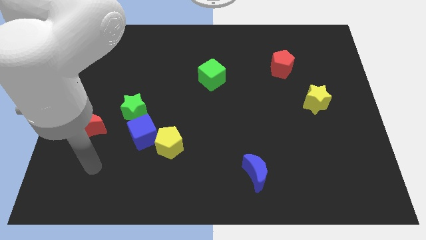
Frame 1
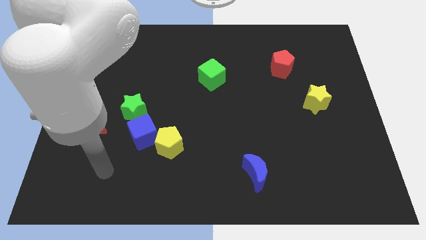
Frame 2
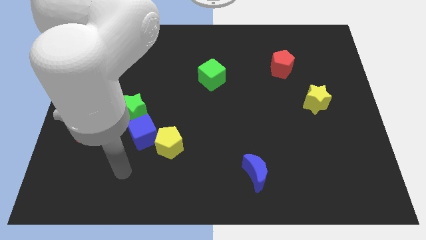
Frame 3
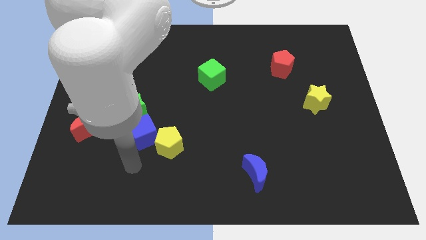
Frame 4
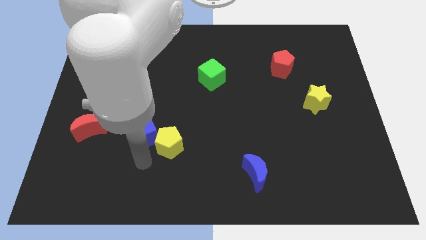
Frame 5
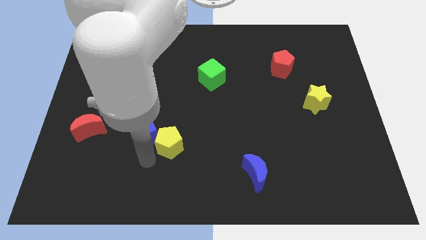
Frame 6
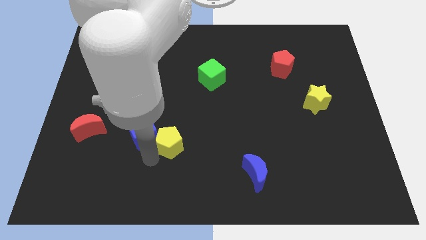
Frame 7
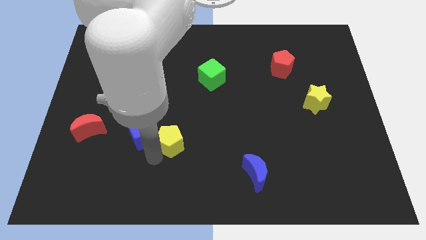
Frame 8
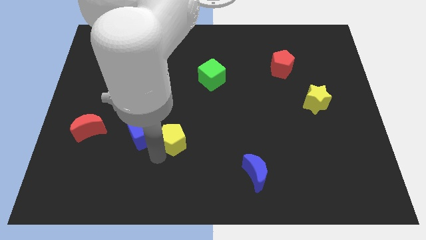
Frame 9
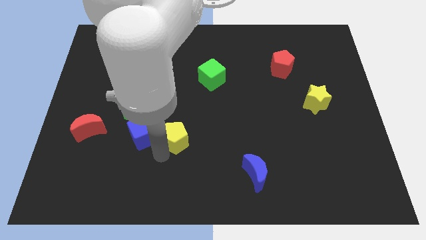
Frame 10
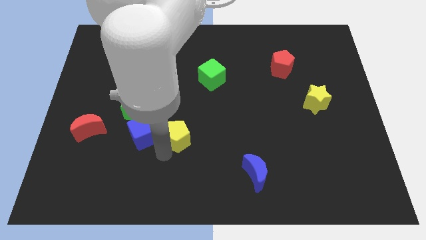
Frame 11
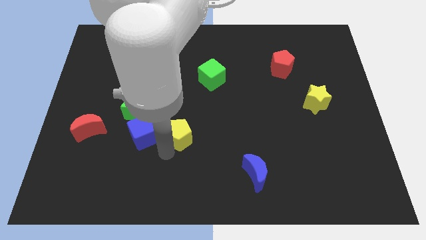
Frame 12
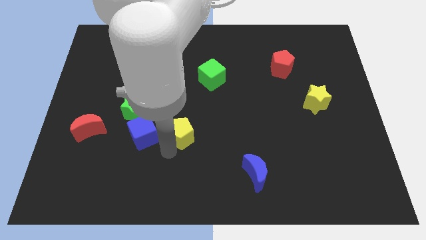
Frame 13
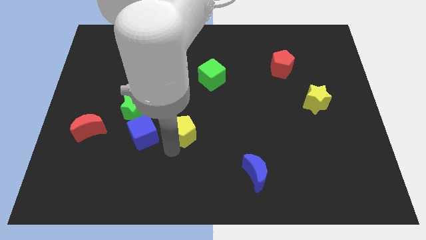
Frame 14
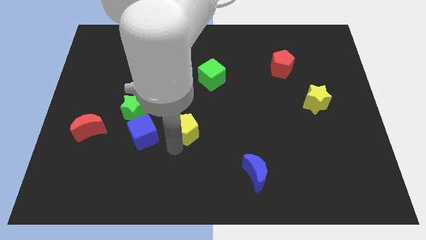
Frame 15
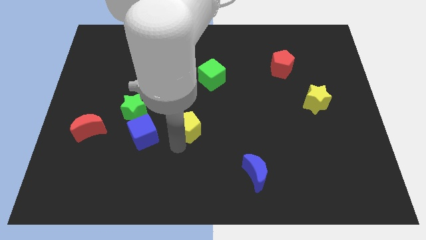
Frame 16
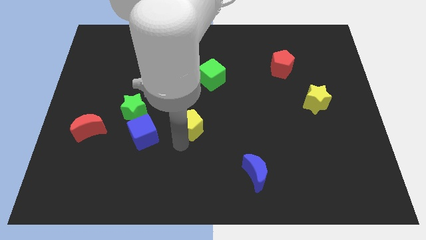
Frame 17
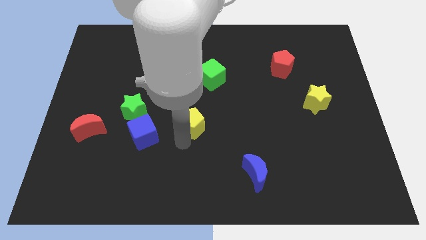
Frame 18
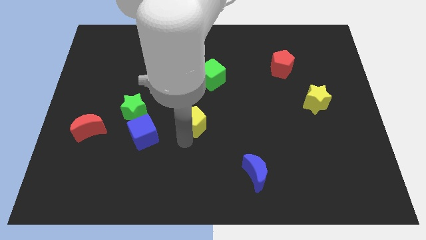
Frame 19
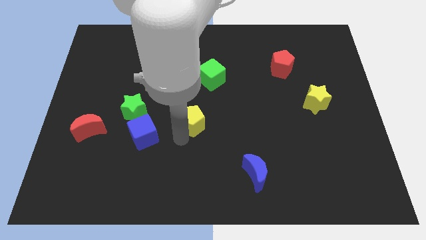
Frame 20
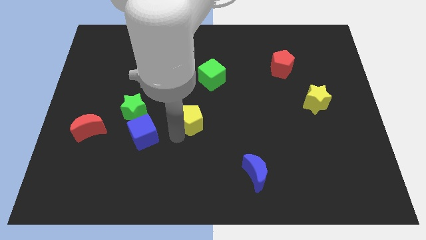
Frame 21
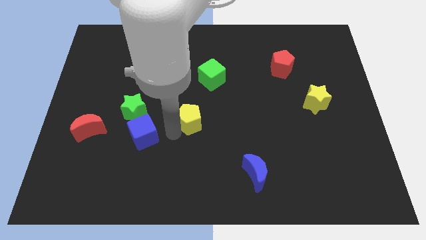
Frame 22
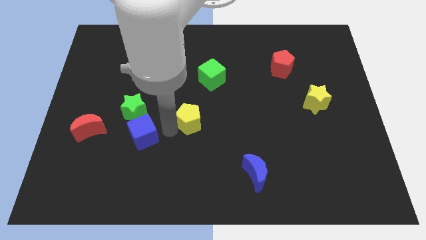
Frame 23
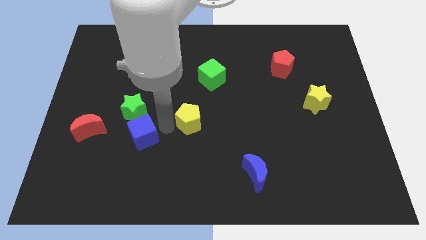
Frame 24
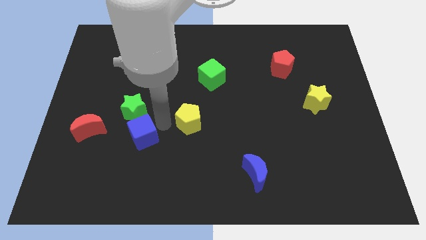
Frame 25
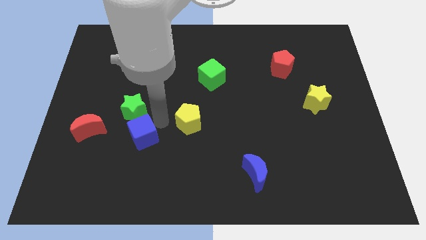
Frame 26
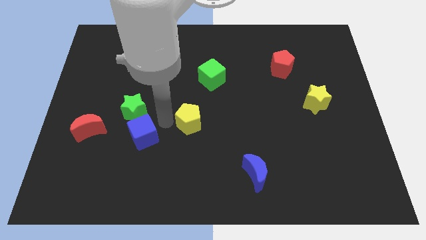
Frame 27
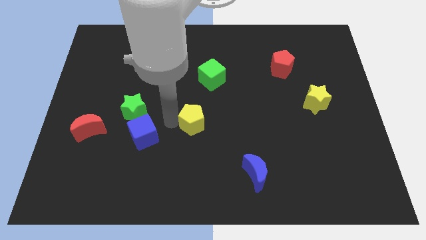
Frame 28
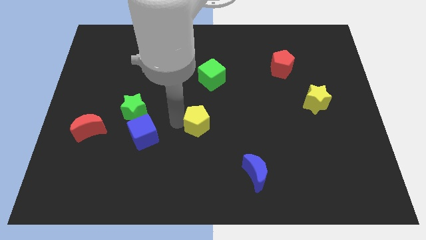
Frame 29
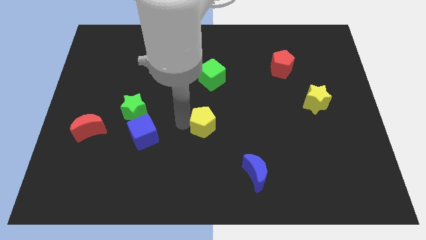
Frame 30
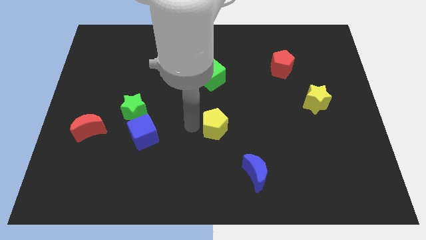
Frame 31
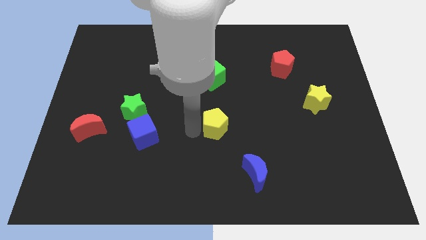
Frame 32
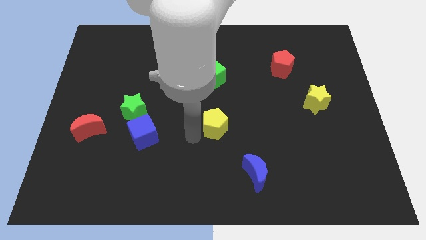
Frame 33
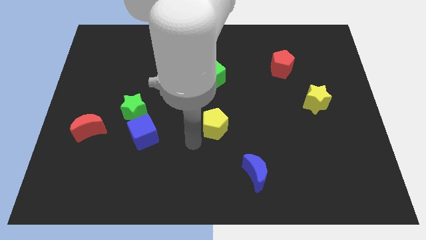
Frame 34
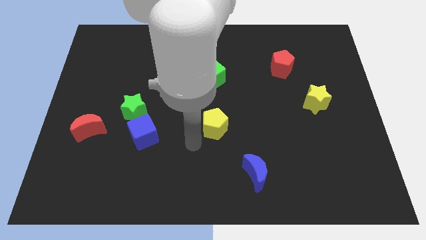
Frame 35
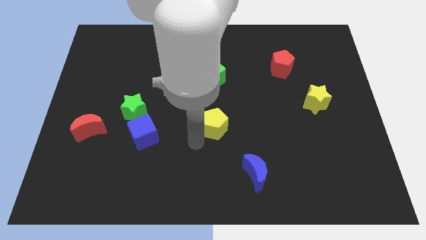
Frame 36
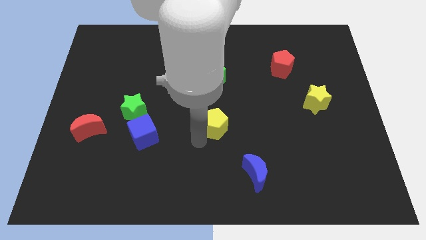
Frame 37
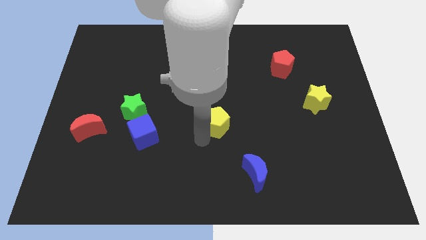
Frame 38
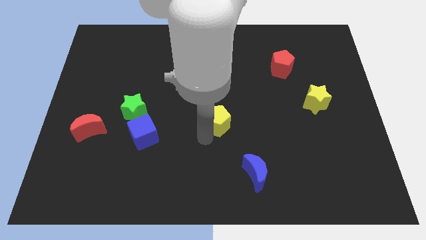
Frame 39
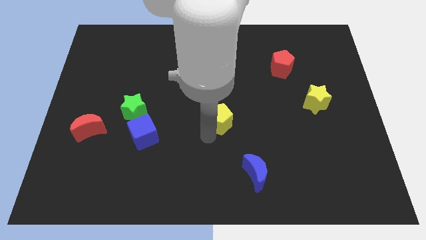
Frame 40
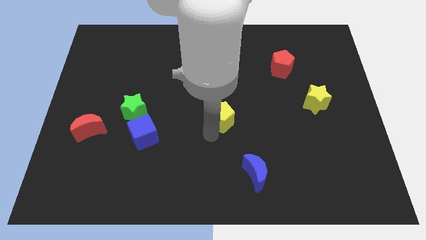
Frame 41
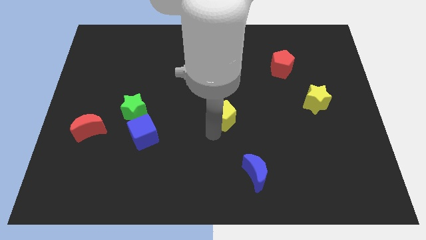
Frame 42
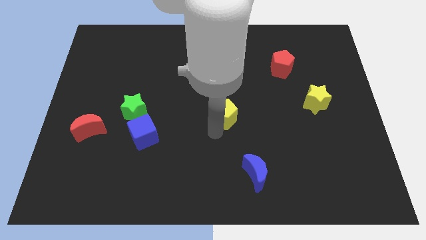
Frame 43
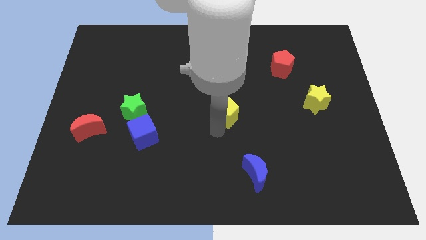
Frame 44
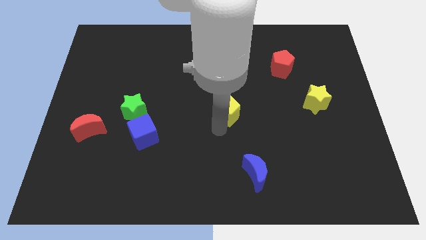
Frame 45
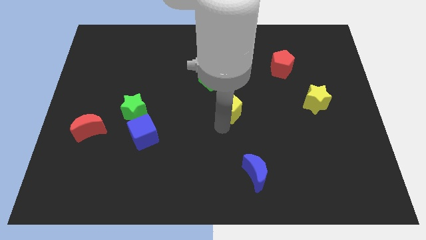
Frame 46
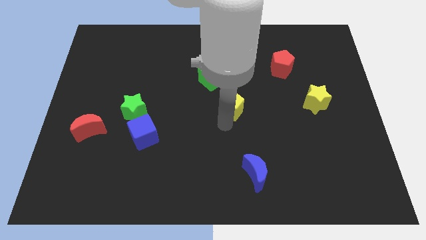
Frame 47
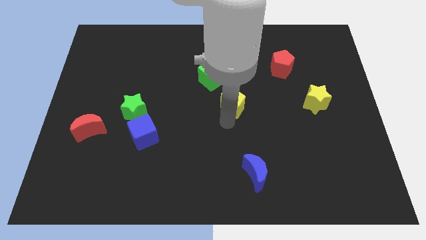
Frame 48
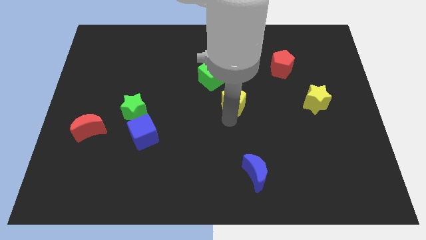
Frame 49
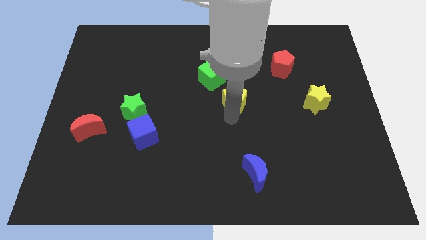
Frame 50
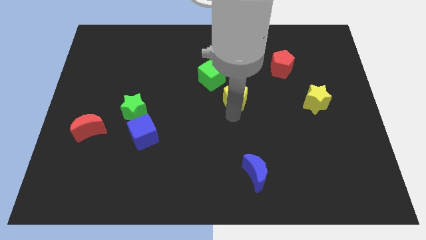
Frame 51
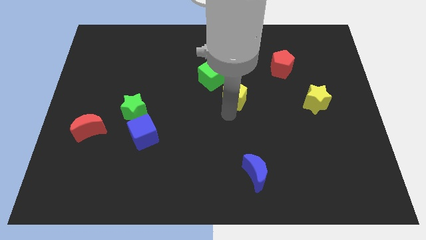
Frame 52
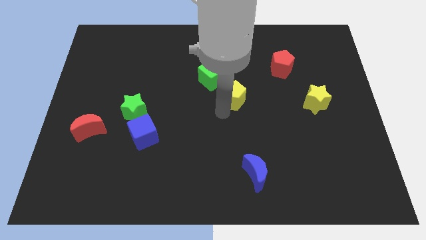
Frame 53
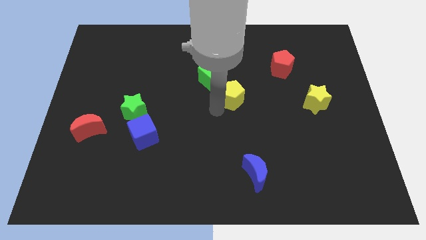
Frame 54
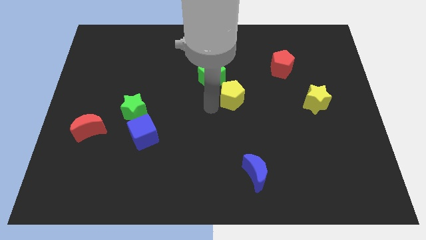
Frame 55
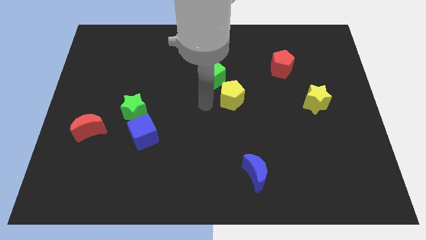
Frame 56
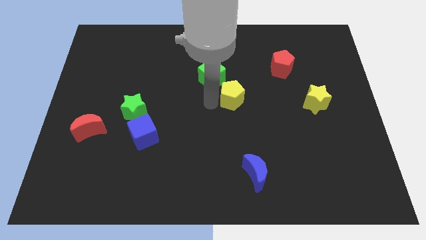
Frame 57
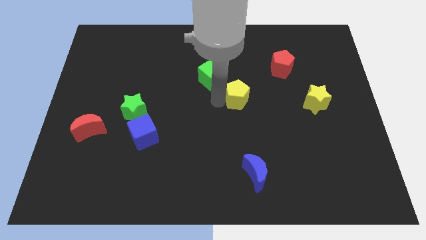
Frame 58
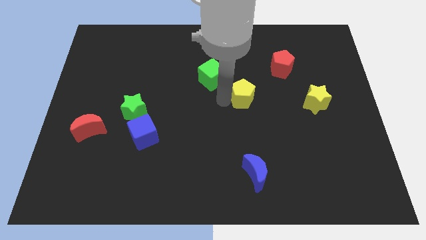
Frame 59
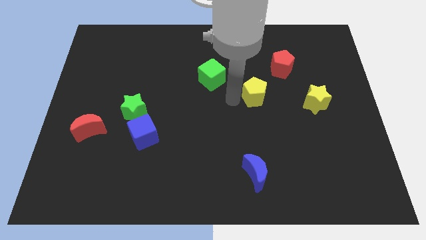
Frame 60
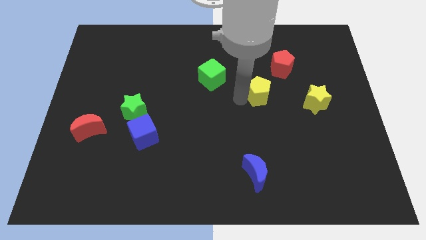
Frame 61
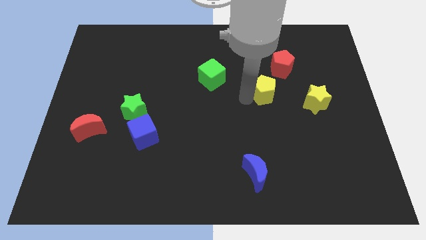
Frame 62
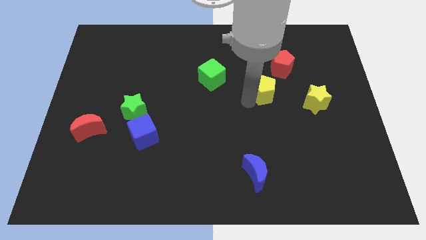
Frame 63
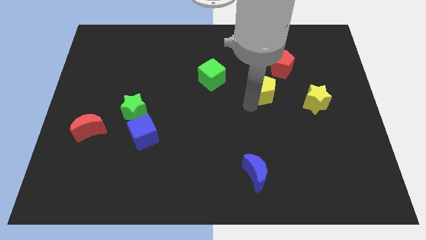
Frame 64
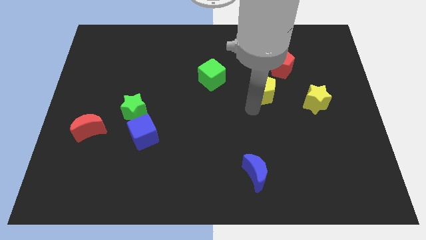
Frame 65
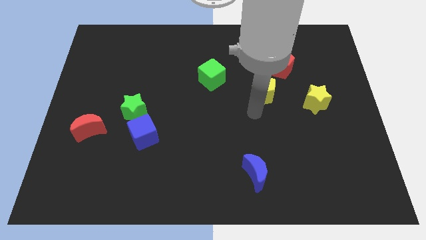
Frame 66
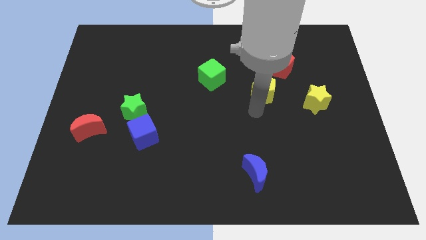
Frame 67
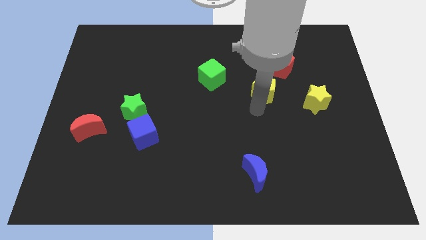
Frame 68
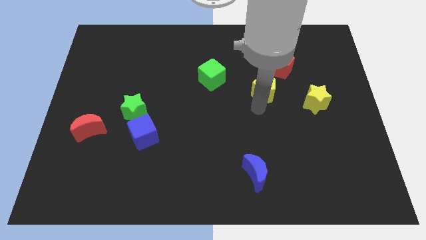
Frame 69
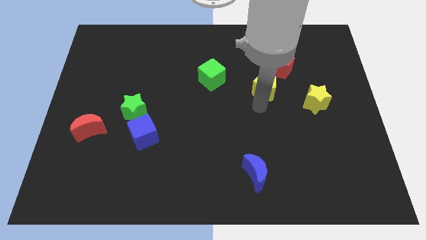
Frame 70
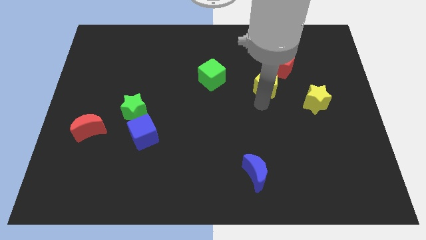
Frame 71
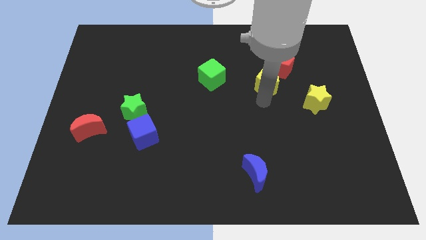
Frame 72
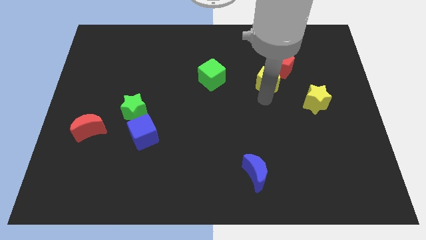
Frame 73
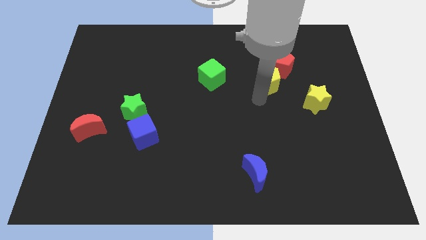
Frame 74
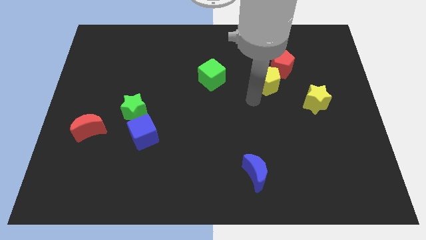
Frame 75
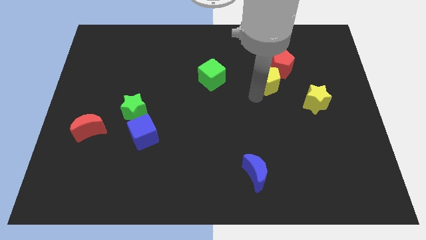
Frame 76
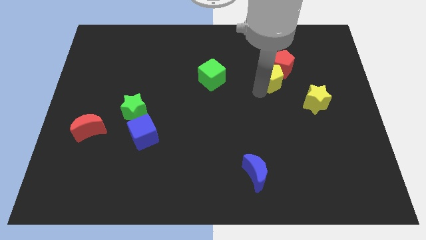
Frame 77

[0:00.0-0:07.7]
slide the yellow pentagon towards the red pentagon
